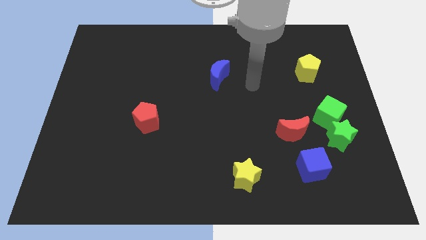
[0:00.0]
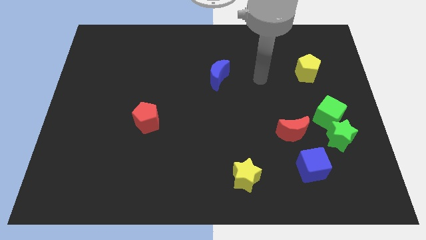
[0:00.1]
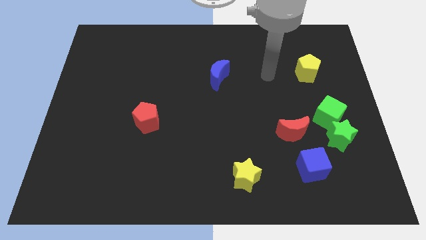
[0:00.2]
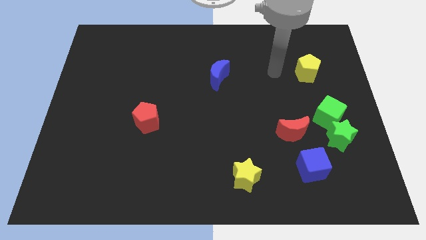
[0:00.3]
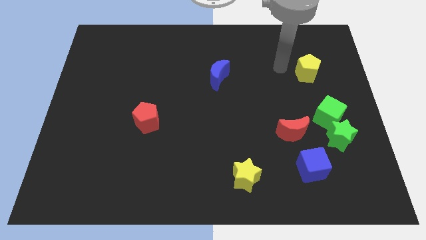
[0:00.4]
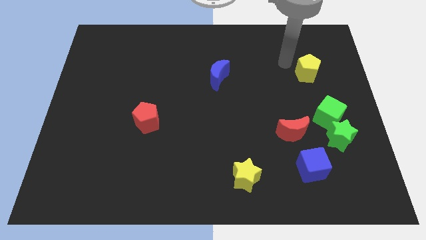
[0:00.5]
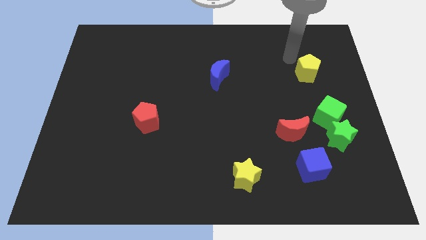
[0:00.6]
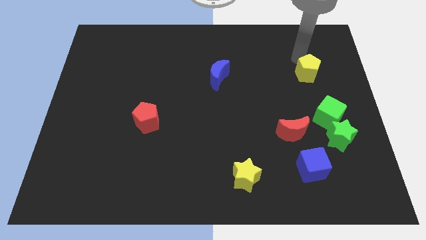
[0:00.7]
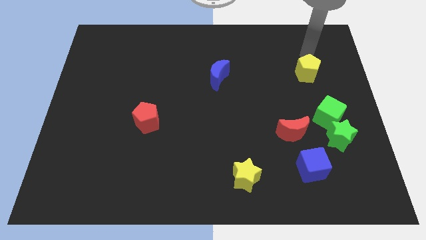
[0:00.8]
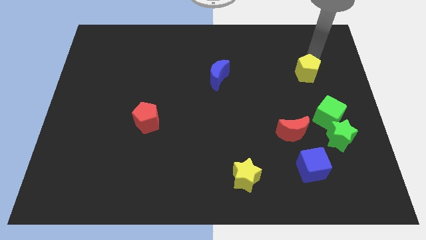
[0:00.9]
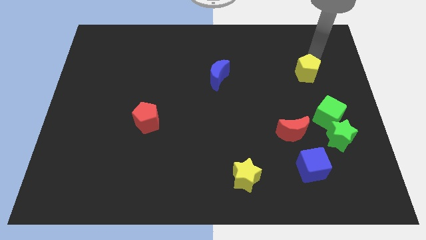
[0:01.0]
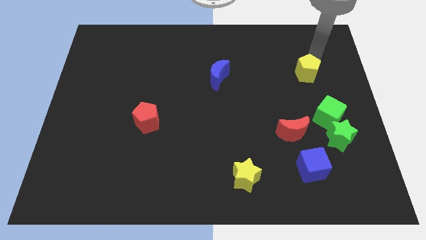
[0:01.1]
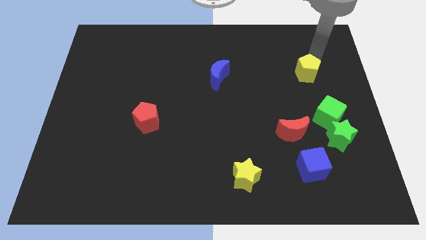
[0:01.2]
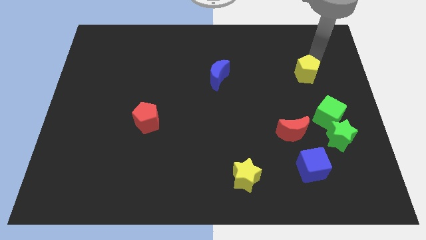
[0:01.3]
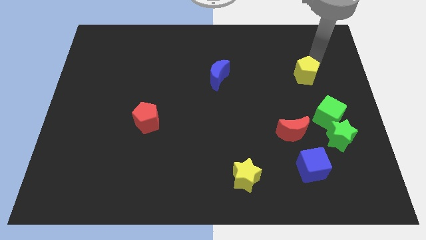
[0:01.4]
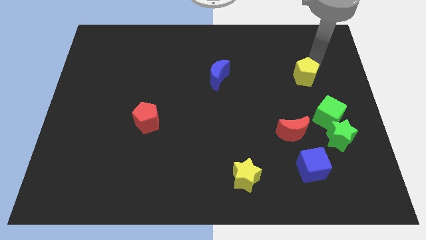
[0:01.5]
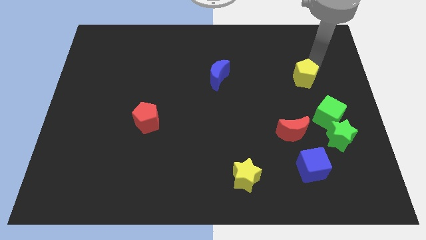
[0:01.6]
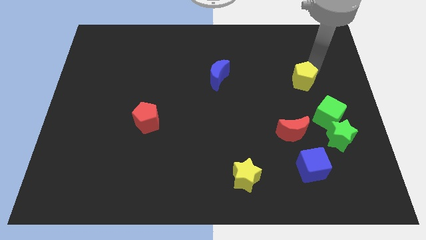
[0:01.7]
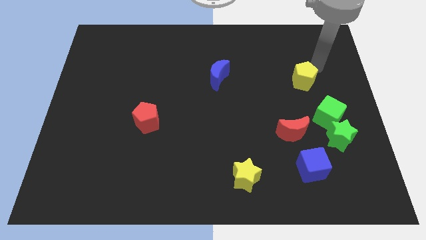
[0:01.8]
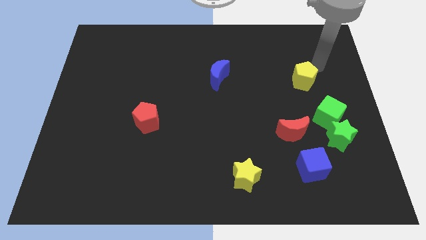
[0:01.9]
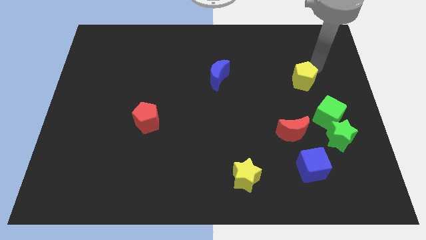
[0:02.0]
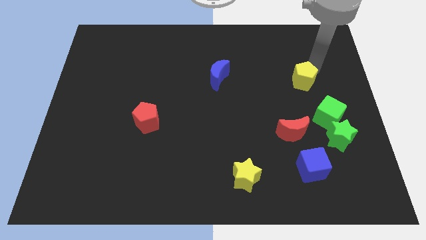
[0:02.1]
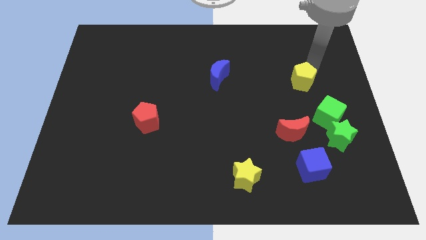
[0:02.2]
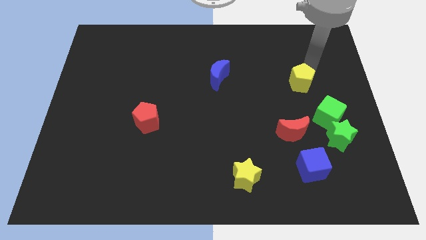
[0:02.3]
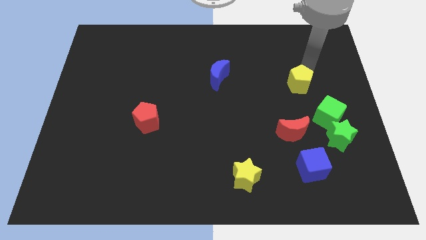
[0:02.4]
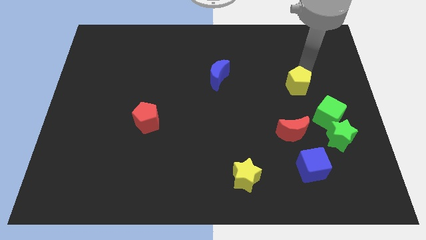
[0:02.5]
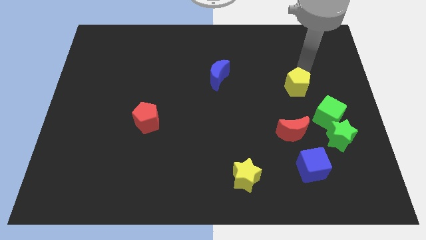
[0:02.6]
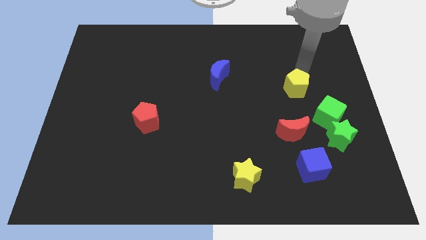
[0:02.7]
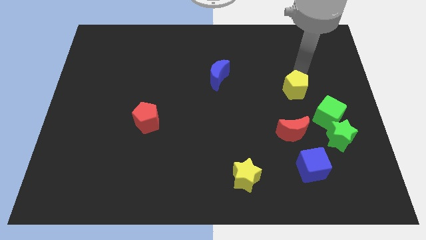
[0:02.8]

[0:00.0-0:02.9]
slightly push the yellow pentagon diagonally downwards and to the left

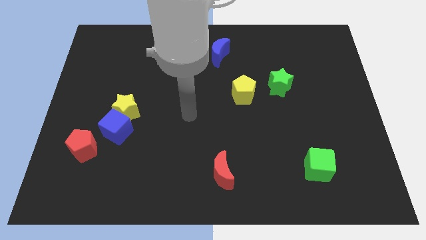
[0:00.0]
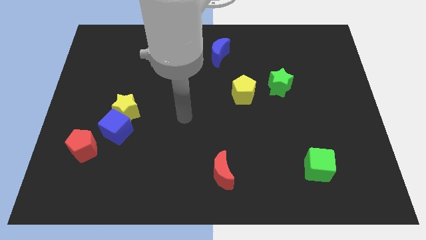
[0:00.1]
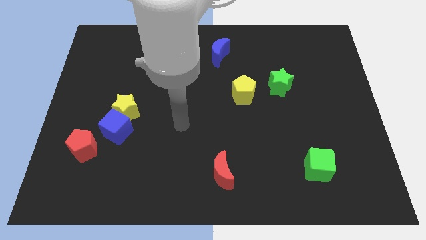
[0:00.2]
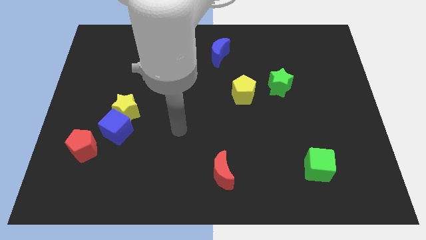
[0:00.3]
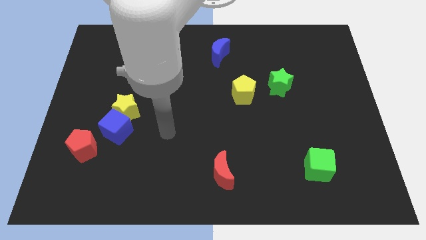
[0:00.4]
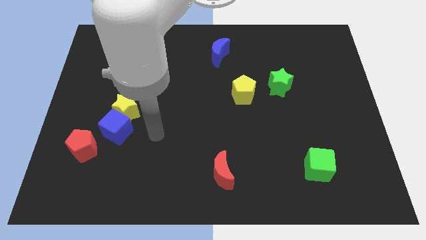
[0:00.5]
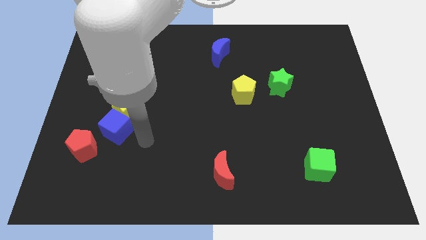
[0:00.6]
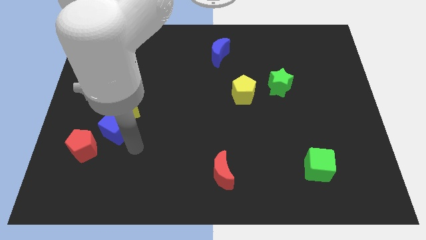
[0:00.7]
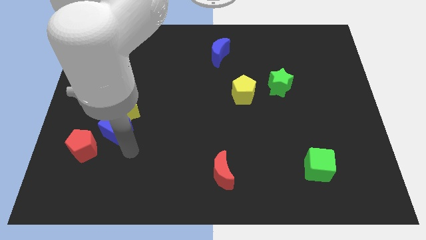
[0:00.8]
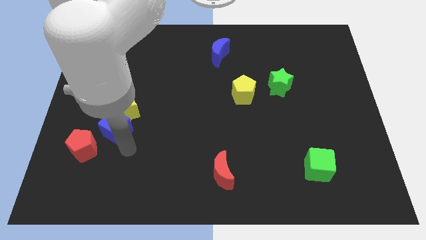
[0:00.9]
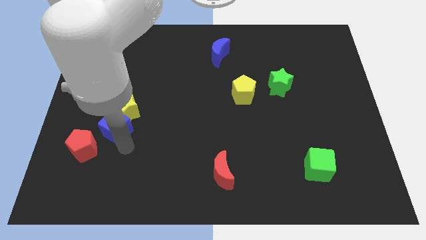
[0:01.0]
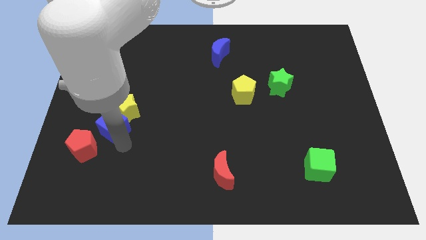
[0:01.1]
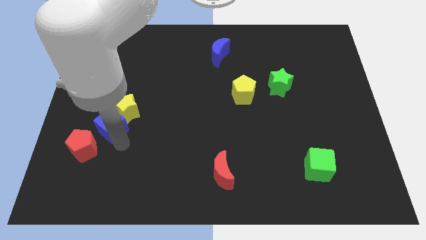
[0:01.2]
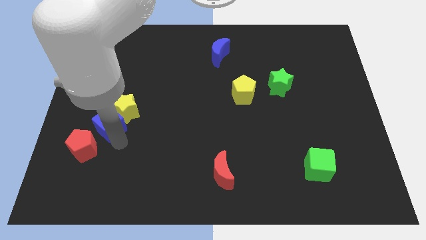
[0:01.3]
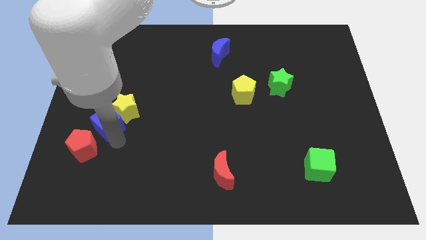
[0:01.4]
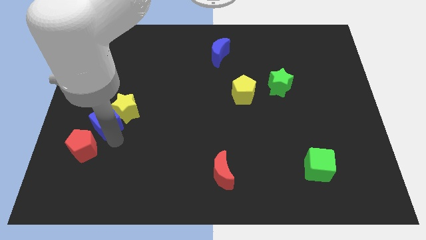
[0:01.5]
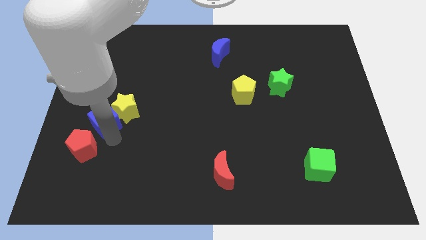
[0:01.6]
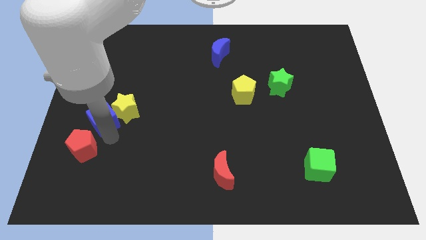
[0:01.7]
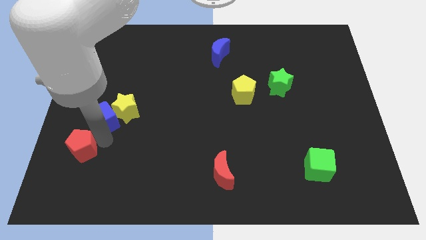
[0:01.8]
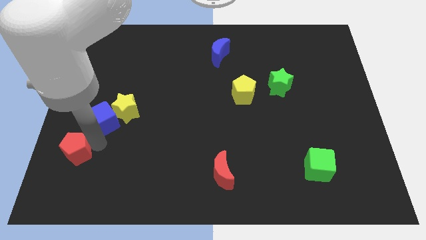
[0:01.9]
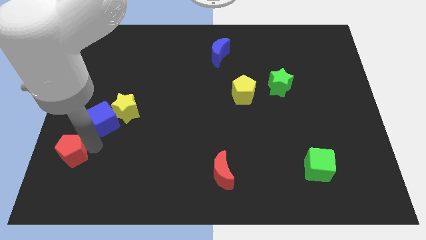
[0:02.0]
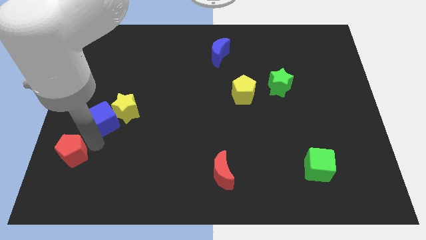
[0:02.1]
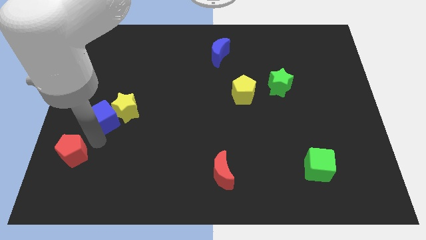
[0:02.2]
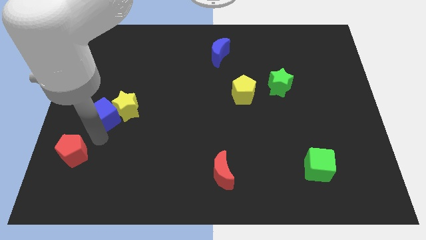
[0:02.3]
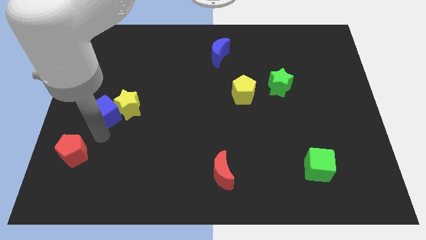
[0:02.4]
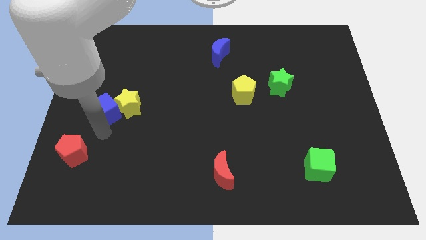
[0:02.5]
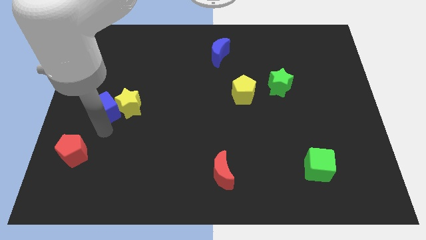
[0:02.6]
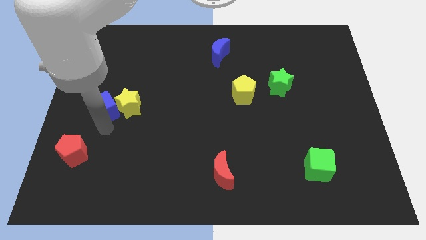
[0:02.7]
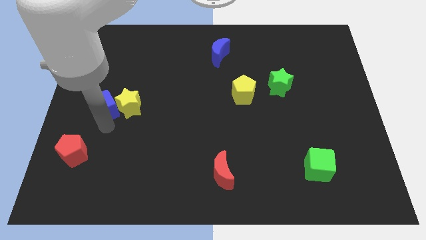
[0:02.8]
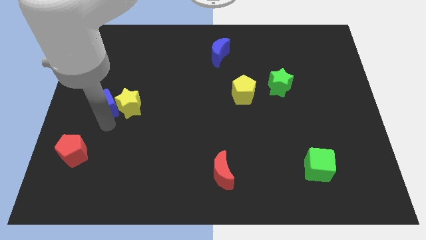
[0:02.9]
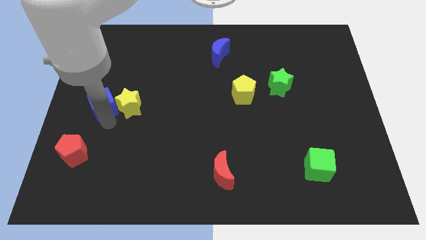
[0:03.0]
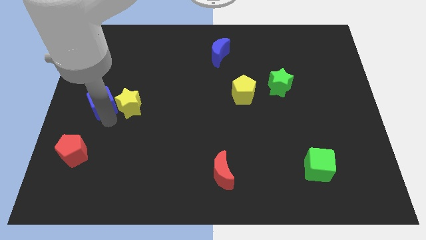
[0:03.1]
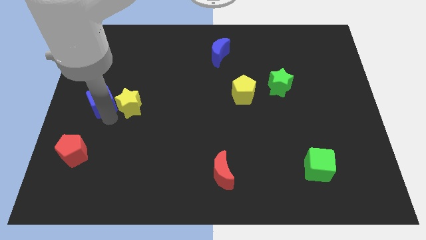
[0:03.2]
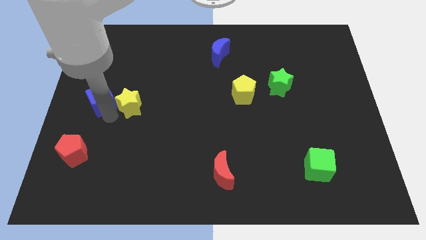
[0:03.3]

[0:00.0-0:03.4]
slightly push the blue cube up

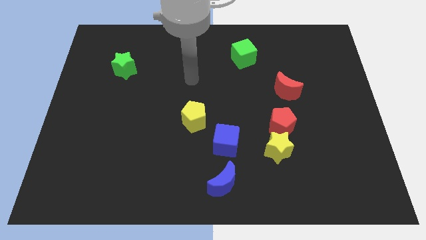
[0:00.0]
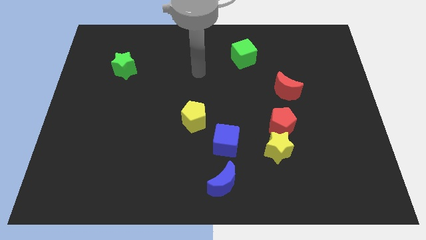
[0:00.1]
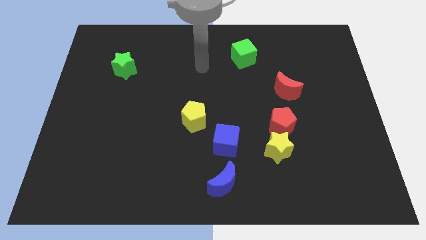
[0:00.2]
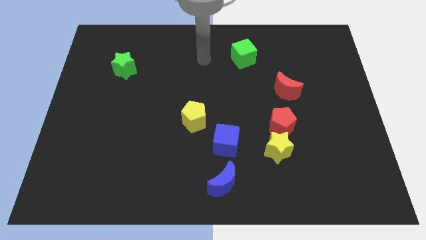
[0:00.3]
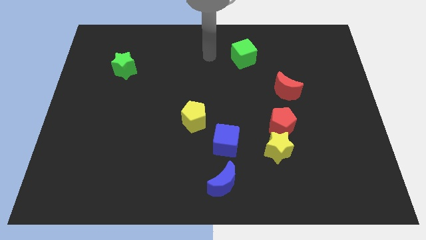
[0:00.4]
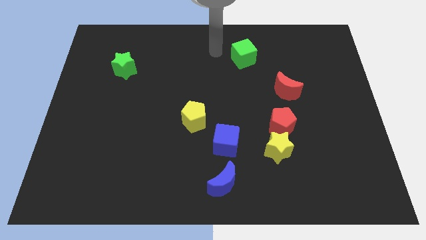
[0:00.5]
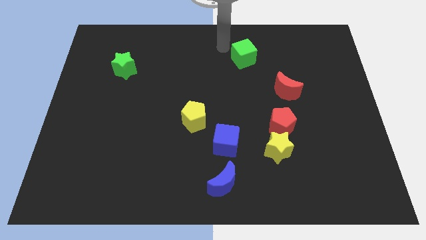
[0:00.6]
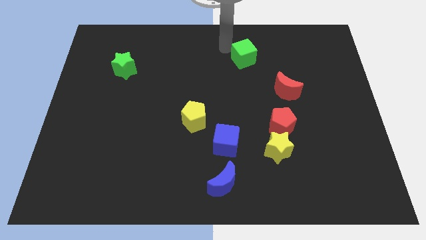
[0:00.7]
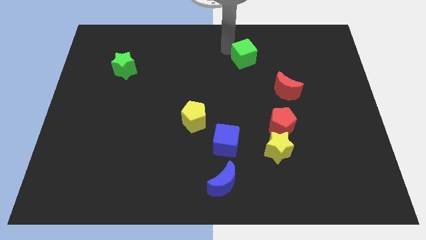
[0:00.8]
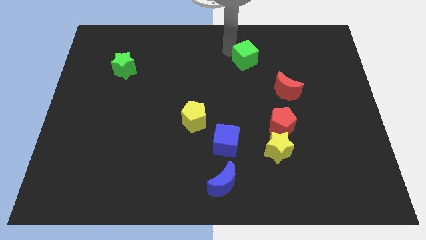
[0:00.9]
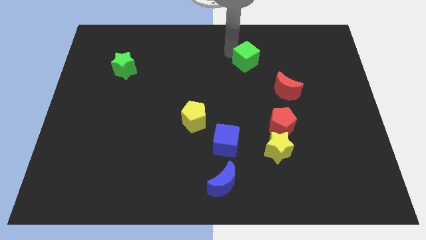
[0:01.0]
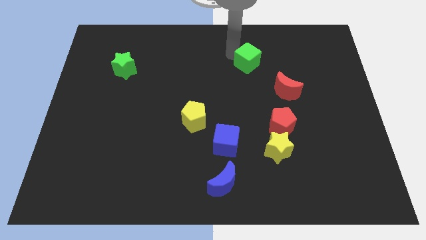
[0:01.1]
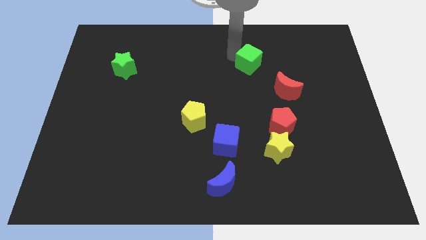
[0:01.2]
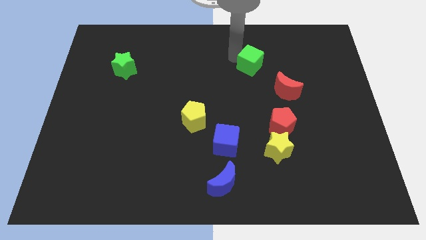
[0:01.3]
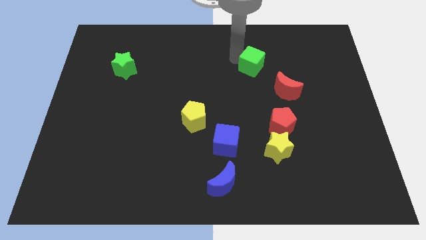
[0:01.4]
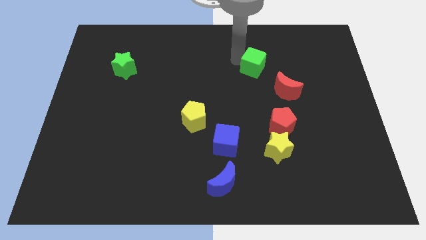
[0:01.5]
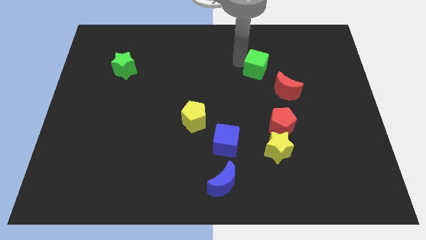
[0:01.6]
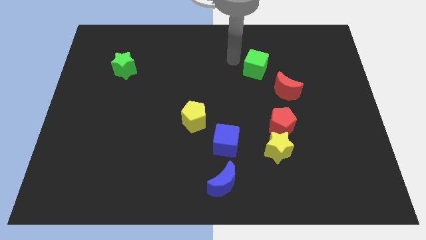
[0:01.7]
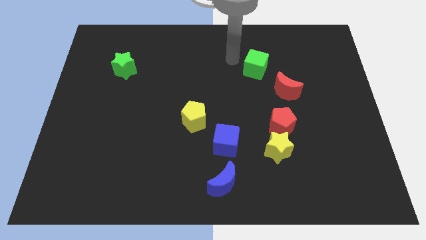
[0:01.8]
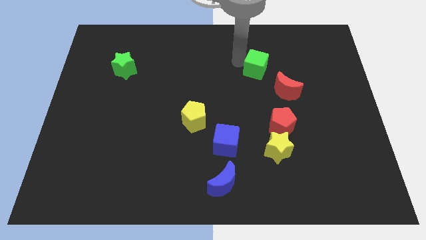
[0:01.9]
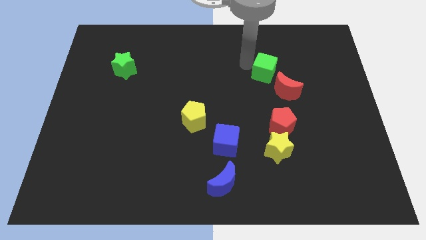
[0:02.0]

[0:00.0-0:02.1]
move the green cube downwards and right a bit
